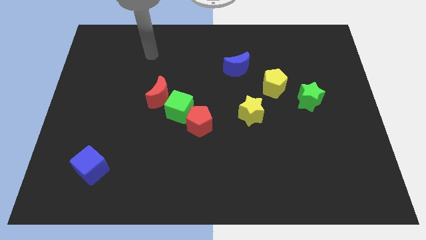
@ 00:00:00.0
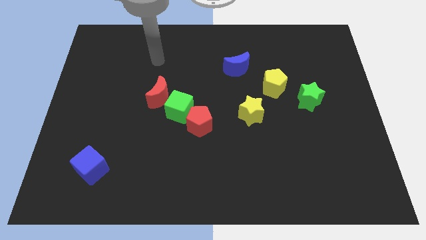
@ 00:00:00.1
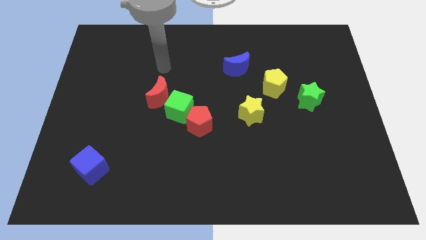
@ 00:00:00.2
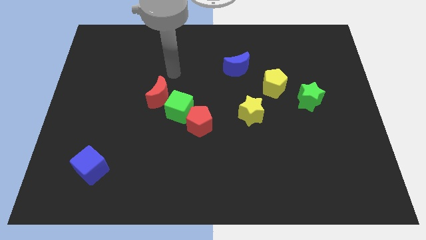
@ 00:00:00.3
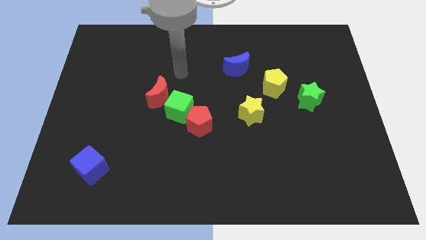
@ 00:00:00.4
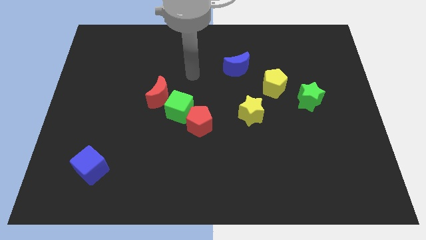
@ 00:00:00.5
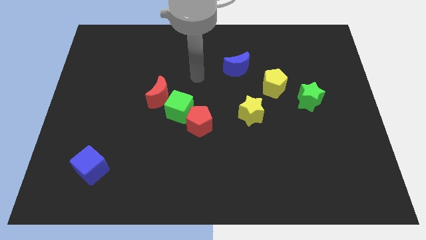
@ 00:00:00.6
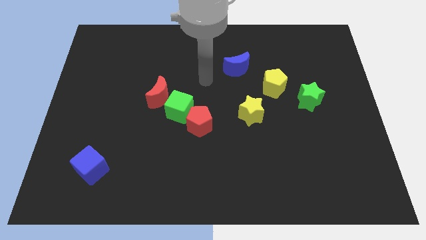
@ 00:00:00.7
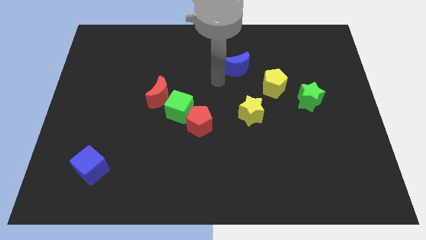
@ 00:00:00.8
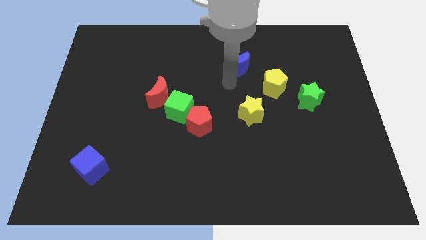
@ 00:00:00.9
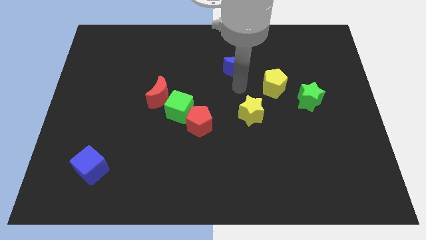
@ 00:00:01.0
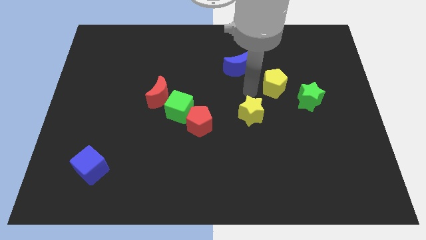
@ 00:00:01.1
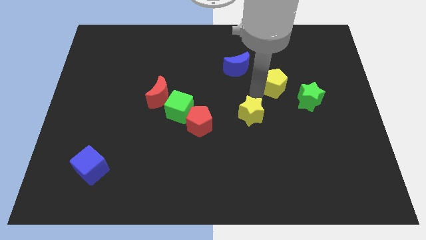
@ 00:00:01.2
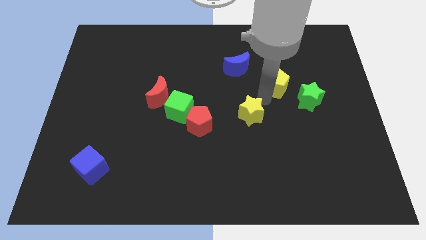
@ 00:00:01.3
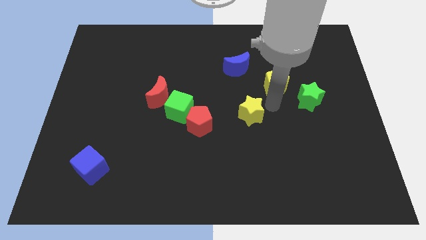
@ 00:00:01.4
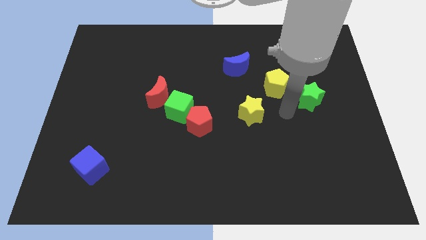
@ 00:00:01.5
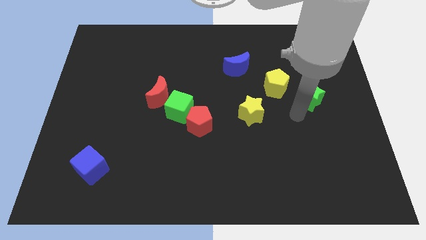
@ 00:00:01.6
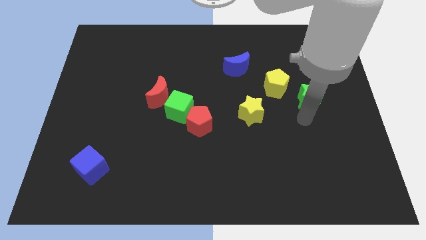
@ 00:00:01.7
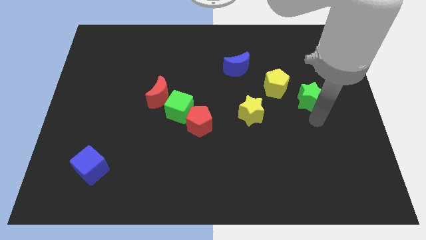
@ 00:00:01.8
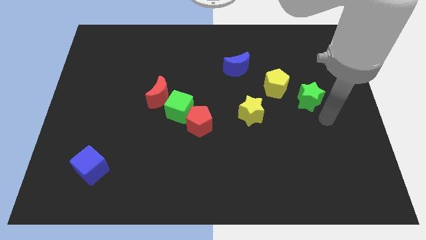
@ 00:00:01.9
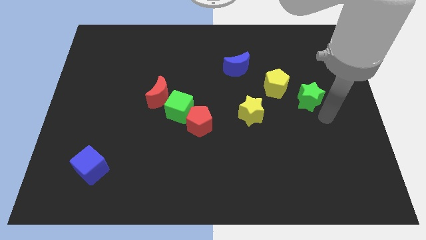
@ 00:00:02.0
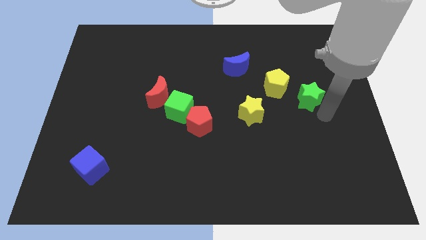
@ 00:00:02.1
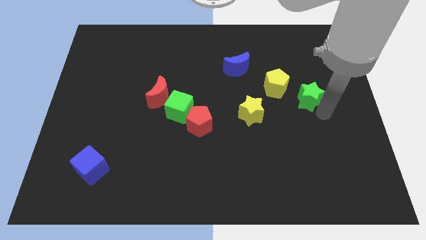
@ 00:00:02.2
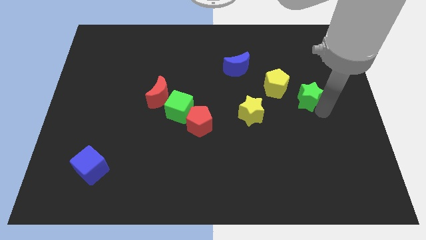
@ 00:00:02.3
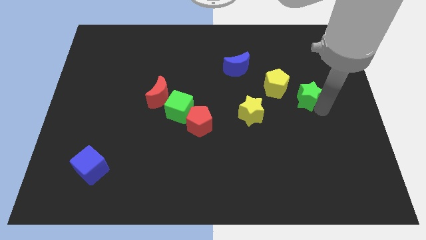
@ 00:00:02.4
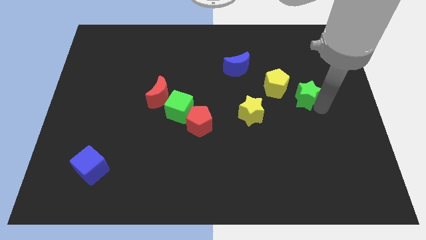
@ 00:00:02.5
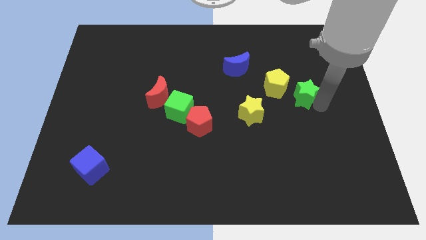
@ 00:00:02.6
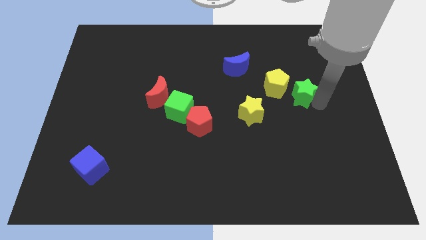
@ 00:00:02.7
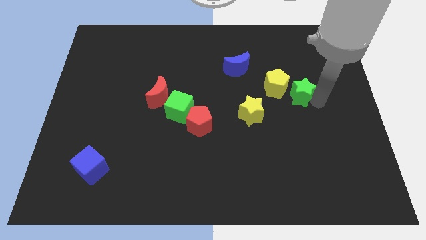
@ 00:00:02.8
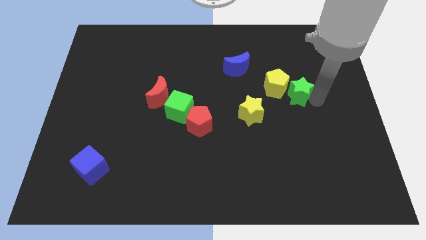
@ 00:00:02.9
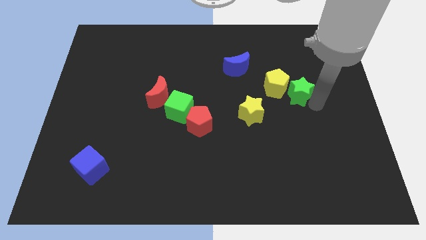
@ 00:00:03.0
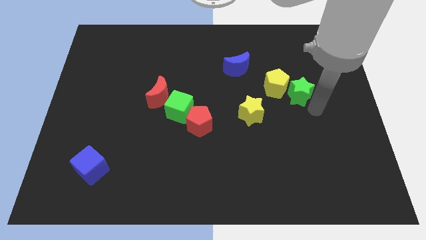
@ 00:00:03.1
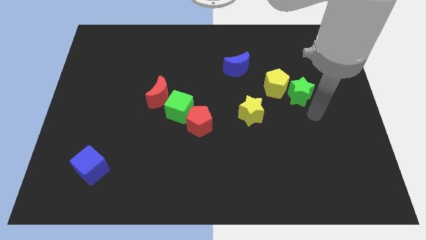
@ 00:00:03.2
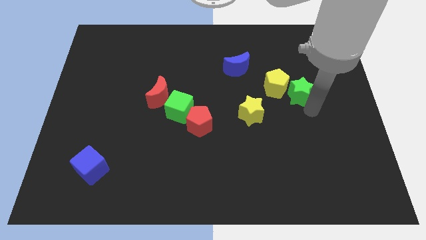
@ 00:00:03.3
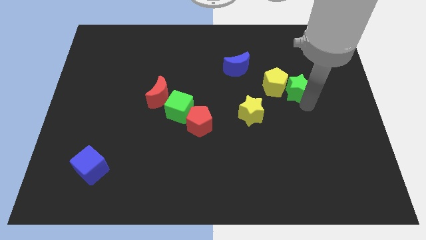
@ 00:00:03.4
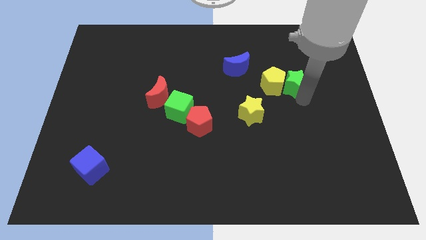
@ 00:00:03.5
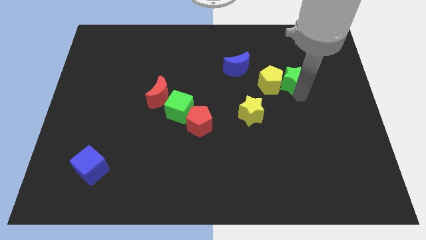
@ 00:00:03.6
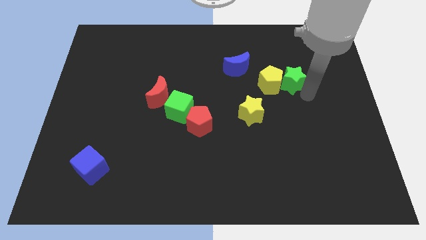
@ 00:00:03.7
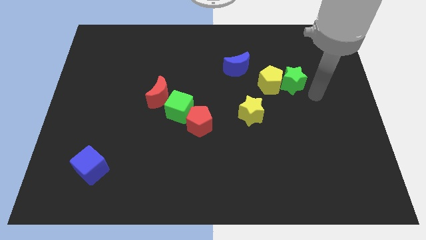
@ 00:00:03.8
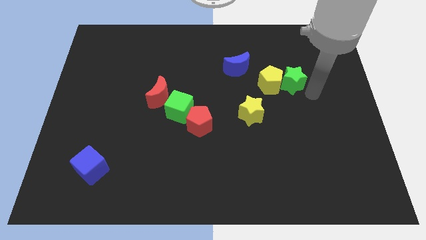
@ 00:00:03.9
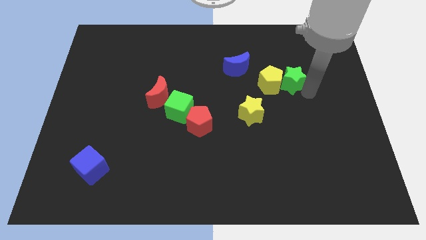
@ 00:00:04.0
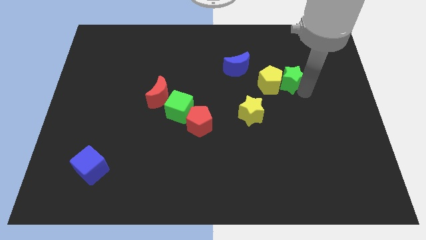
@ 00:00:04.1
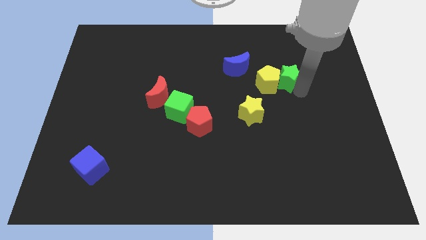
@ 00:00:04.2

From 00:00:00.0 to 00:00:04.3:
slightly slide the green star diagonally upwards and to the left

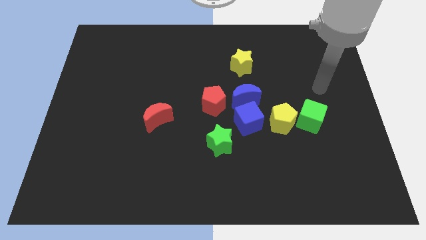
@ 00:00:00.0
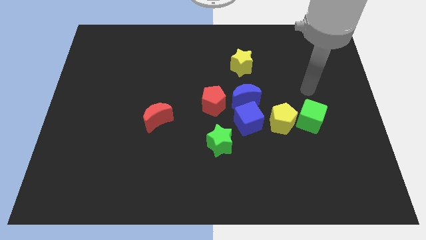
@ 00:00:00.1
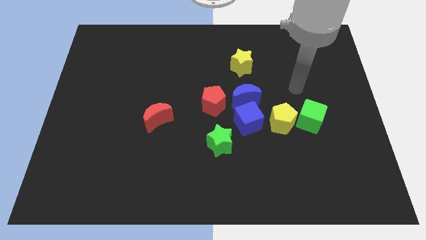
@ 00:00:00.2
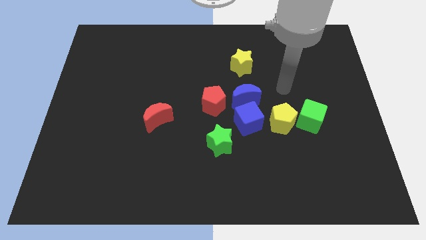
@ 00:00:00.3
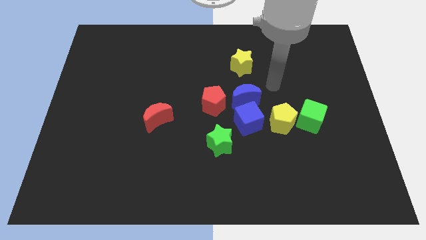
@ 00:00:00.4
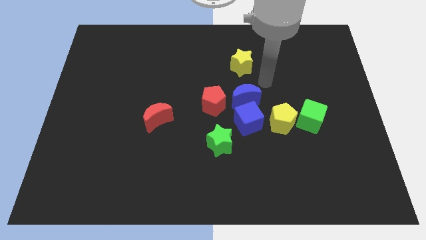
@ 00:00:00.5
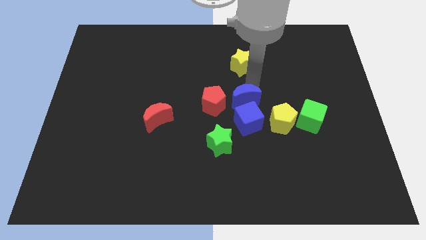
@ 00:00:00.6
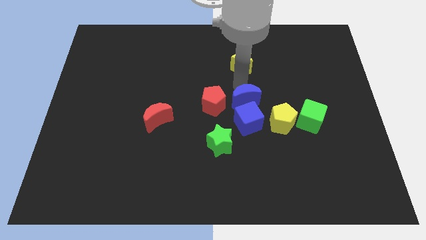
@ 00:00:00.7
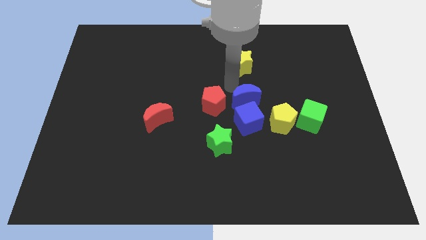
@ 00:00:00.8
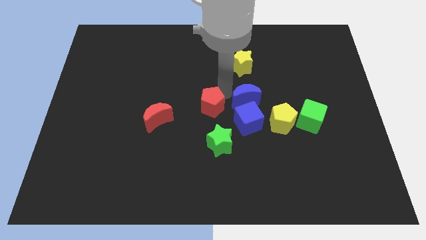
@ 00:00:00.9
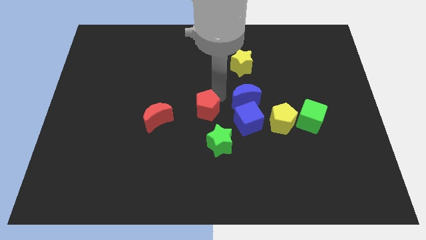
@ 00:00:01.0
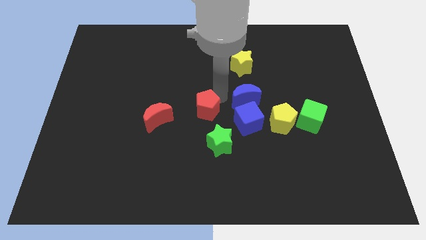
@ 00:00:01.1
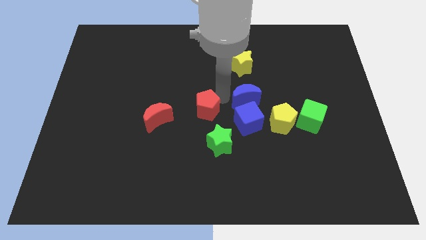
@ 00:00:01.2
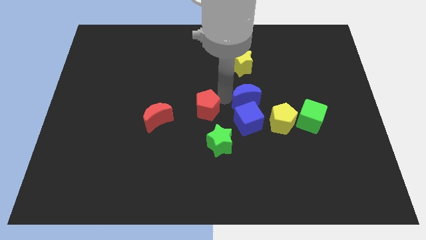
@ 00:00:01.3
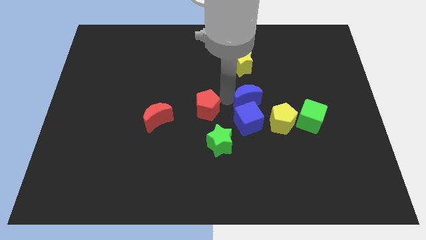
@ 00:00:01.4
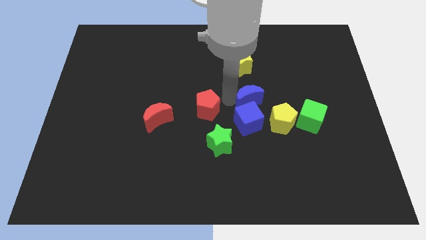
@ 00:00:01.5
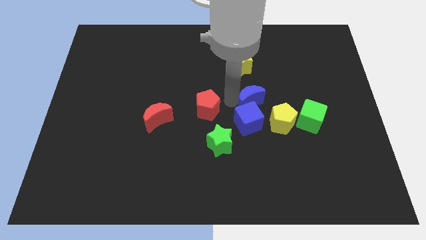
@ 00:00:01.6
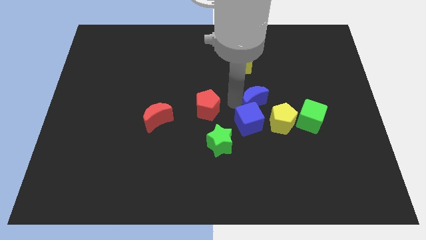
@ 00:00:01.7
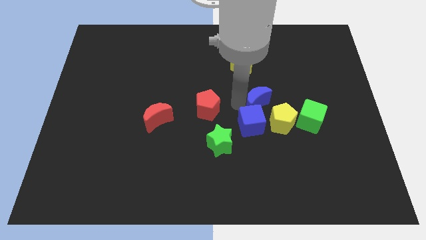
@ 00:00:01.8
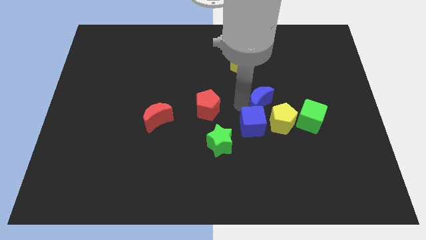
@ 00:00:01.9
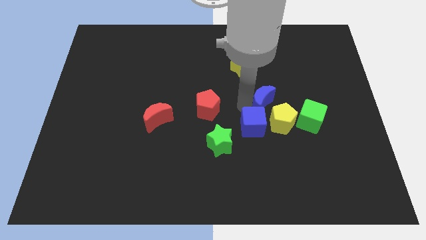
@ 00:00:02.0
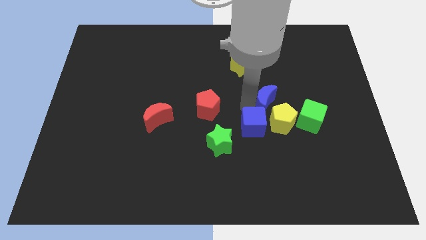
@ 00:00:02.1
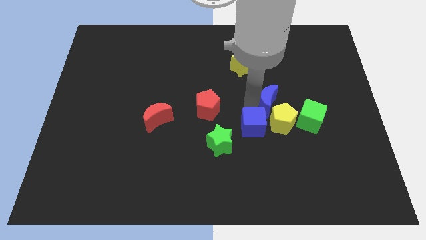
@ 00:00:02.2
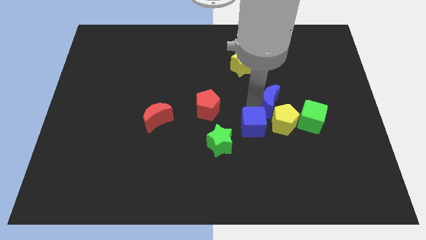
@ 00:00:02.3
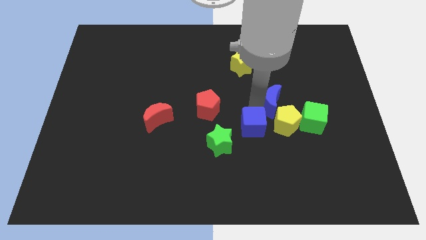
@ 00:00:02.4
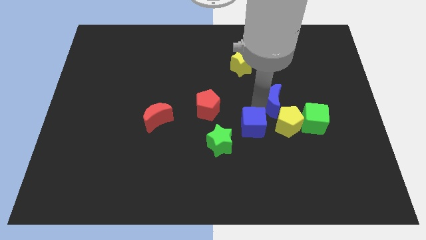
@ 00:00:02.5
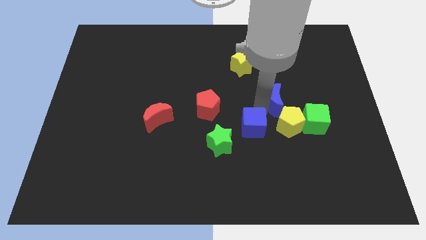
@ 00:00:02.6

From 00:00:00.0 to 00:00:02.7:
slightly push the blue moon to the right

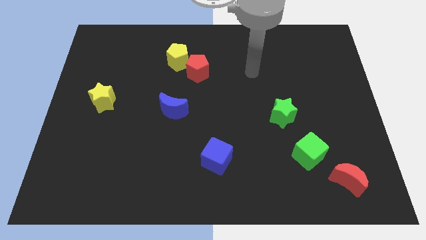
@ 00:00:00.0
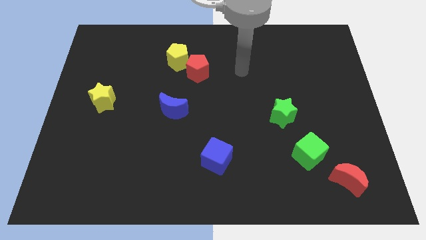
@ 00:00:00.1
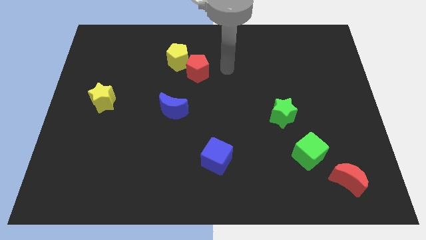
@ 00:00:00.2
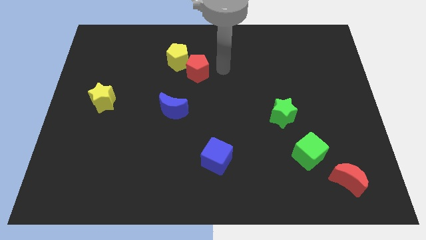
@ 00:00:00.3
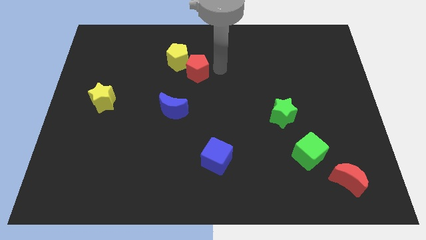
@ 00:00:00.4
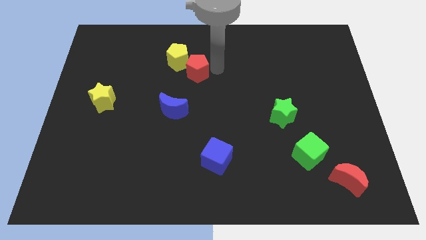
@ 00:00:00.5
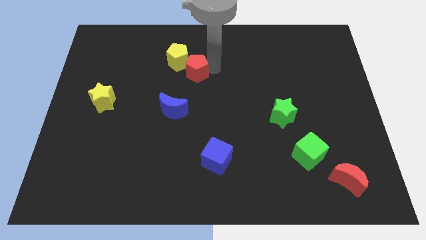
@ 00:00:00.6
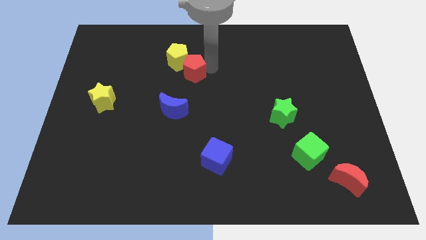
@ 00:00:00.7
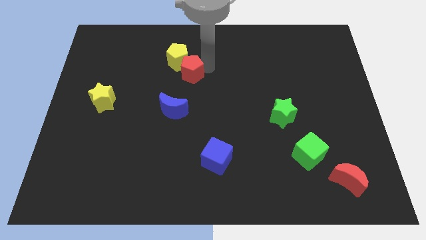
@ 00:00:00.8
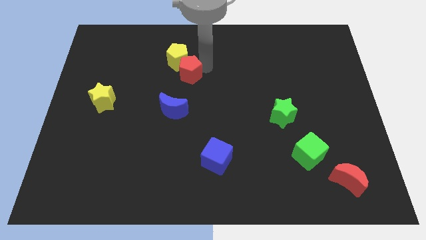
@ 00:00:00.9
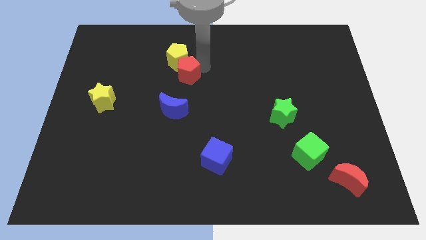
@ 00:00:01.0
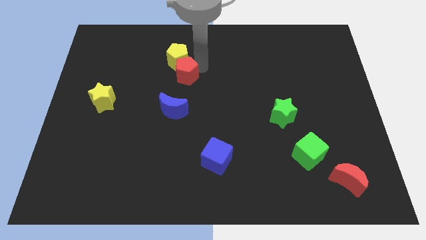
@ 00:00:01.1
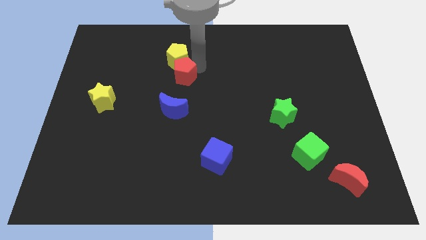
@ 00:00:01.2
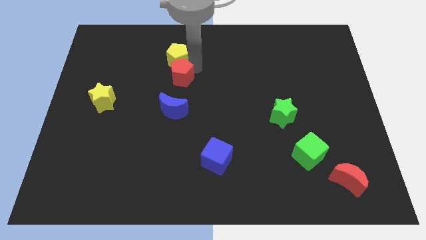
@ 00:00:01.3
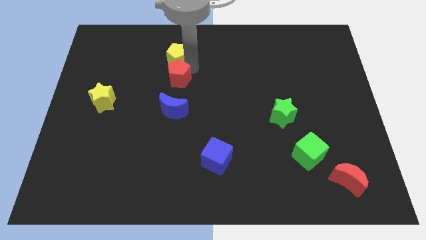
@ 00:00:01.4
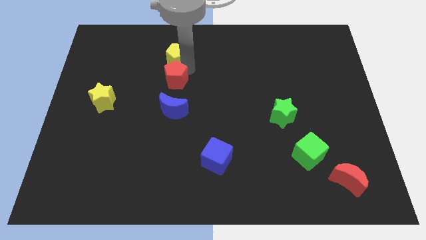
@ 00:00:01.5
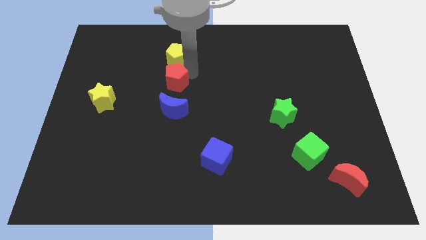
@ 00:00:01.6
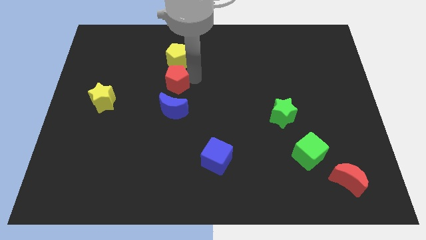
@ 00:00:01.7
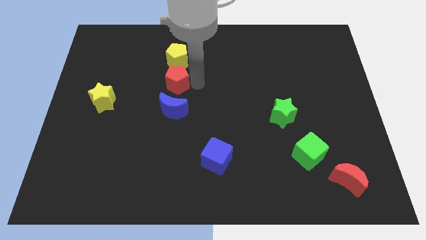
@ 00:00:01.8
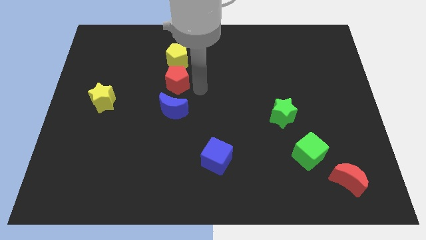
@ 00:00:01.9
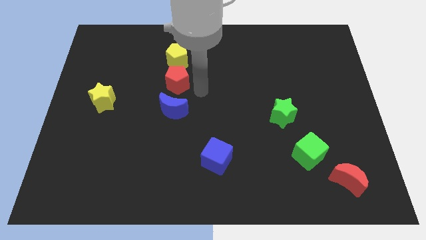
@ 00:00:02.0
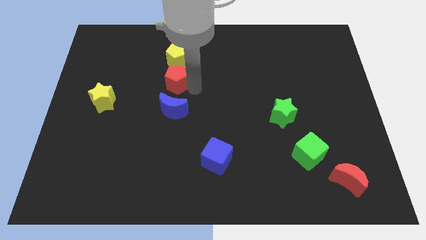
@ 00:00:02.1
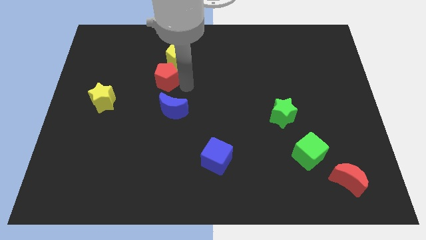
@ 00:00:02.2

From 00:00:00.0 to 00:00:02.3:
slightly push the red pentagon to the left
